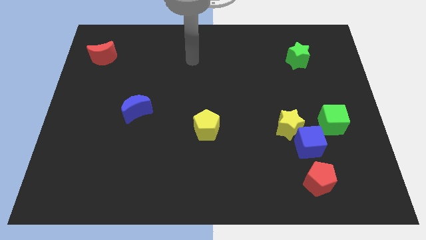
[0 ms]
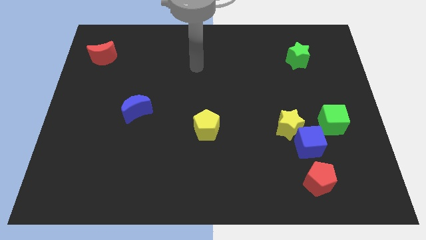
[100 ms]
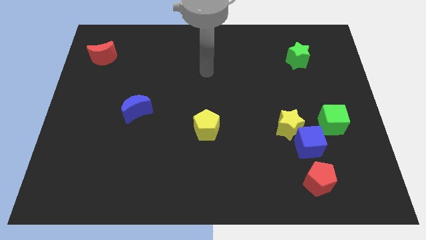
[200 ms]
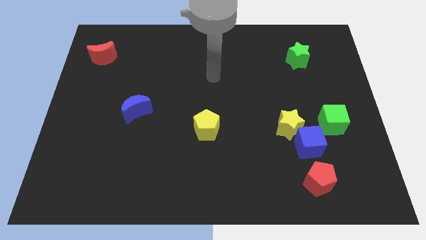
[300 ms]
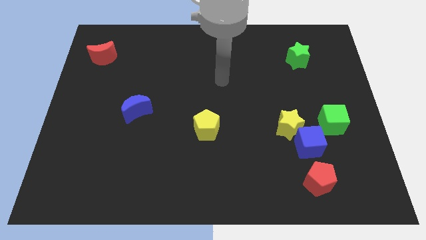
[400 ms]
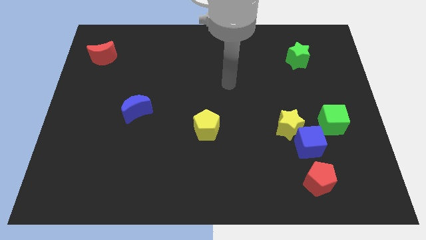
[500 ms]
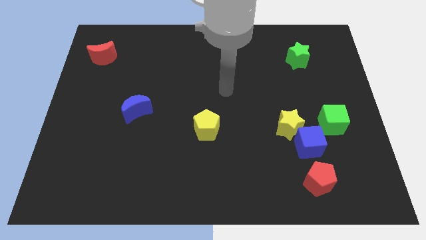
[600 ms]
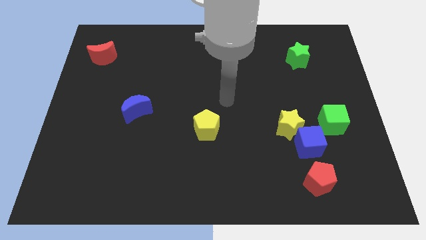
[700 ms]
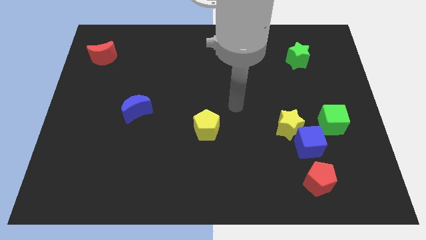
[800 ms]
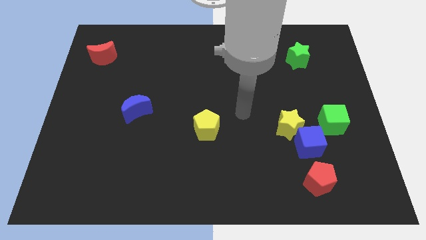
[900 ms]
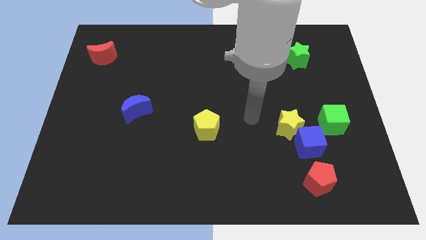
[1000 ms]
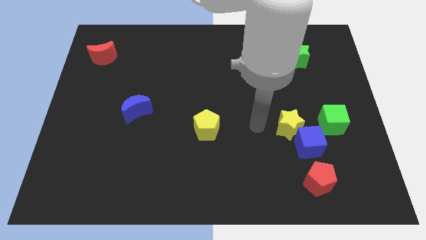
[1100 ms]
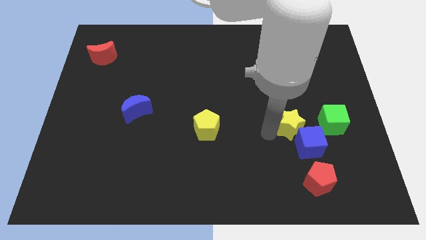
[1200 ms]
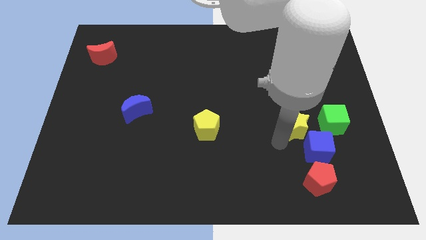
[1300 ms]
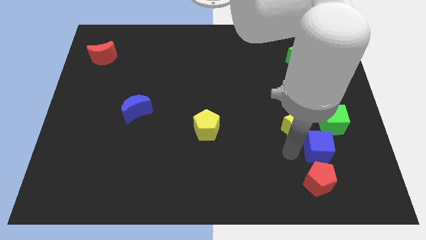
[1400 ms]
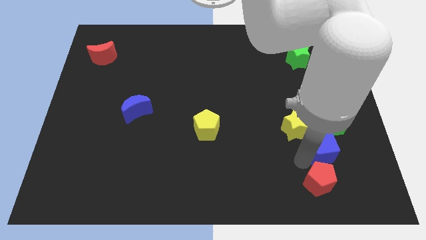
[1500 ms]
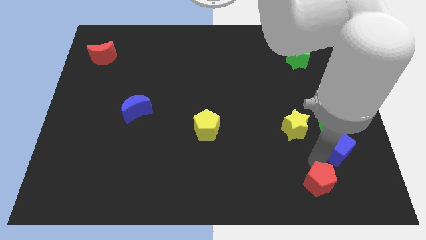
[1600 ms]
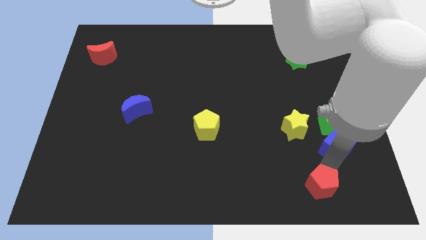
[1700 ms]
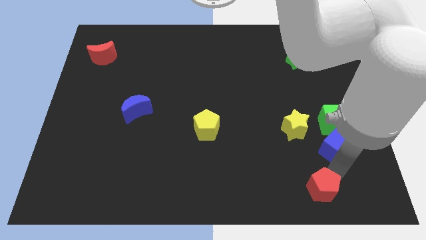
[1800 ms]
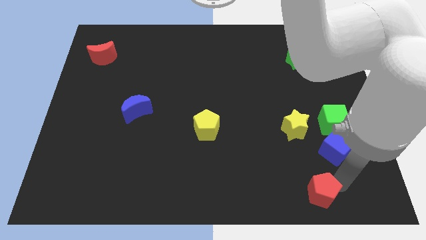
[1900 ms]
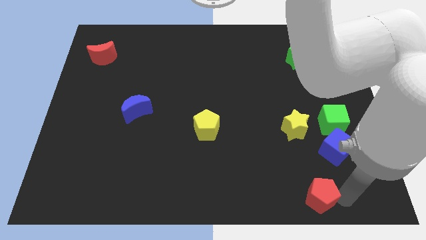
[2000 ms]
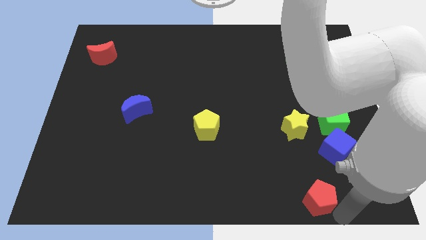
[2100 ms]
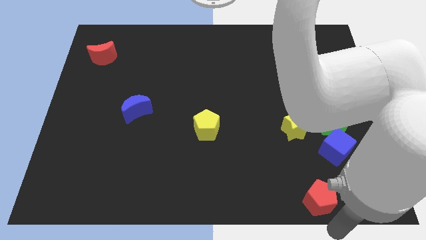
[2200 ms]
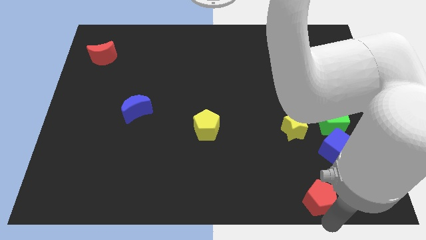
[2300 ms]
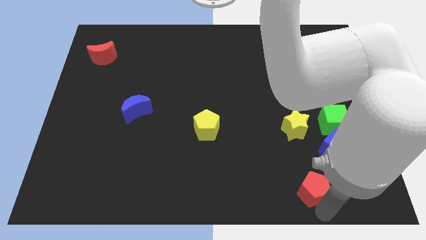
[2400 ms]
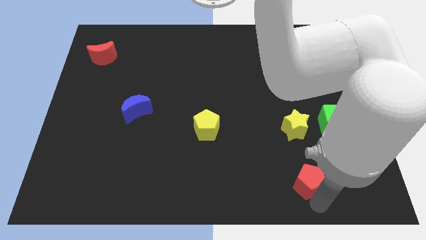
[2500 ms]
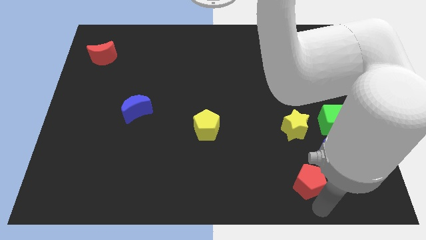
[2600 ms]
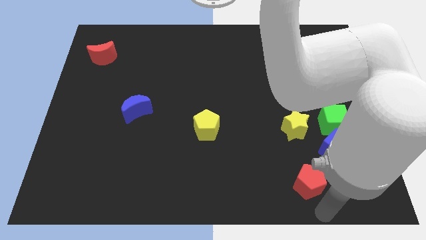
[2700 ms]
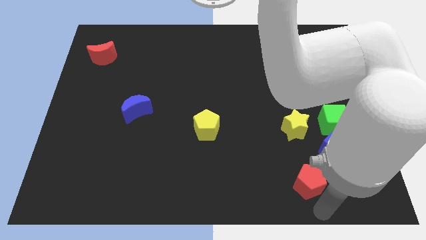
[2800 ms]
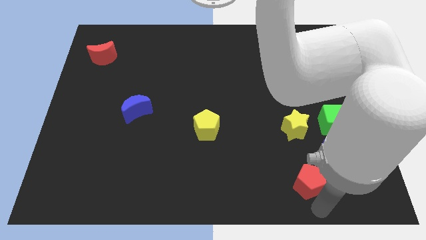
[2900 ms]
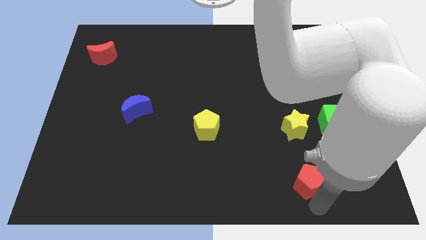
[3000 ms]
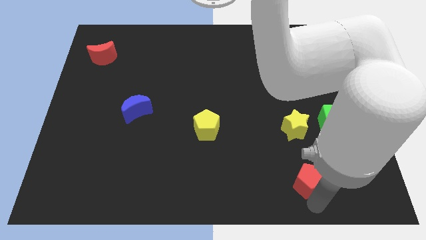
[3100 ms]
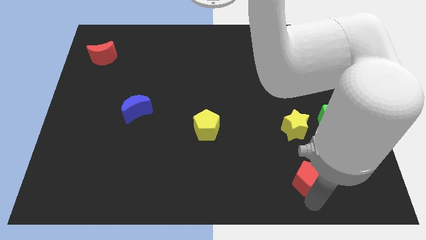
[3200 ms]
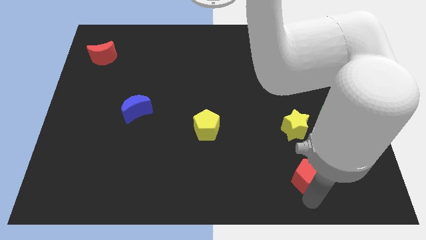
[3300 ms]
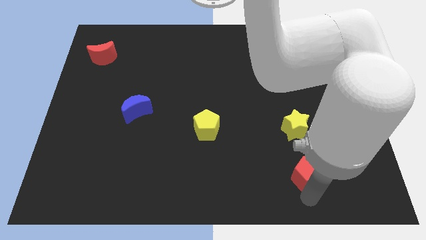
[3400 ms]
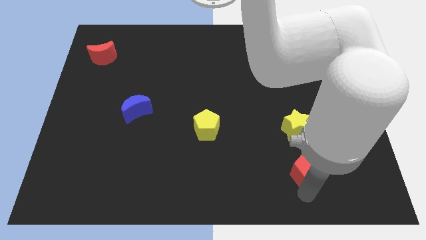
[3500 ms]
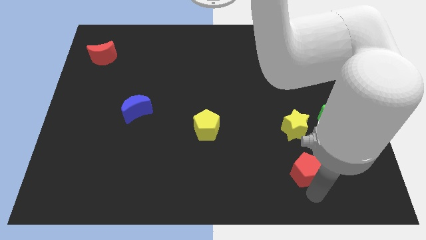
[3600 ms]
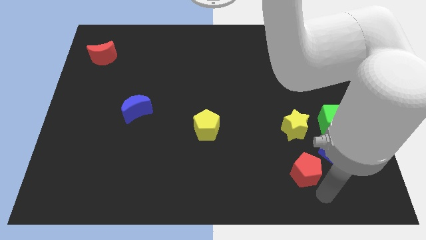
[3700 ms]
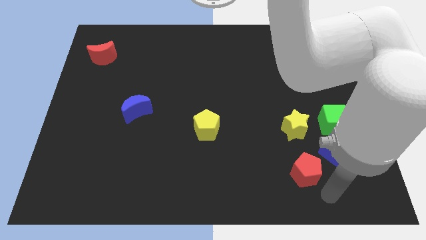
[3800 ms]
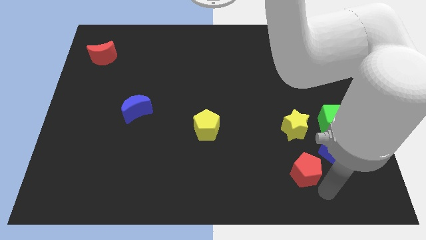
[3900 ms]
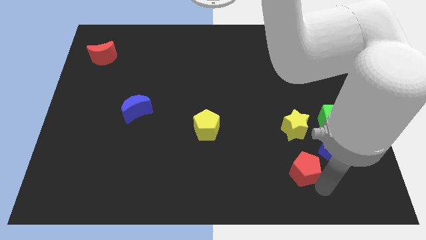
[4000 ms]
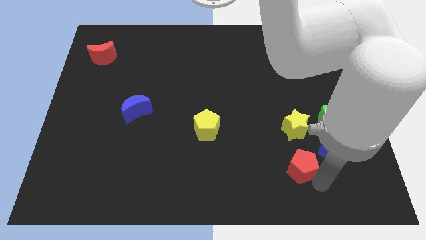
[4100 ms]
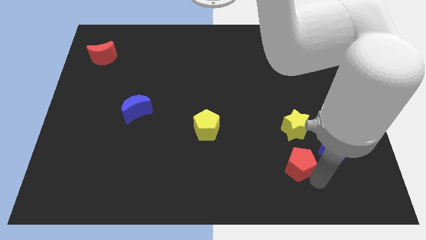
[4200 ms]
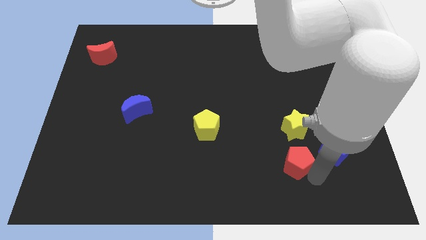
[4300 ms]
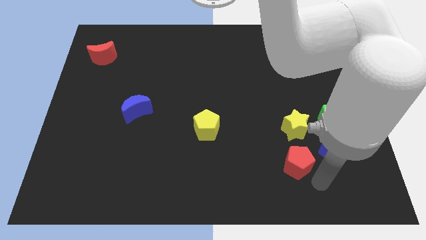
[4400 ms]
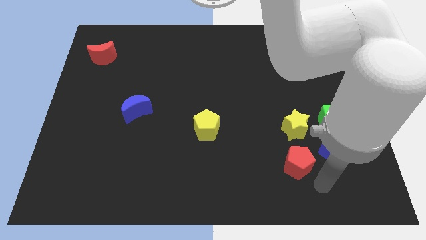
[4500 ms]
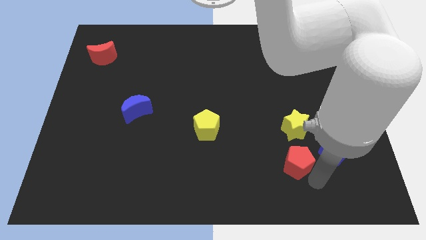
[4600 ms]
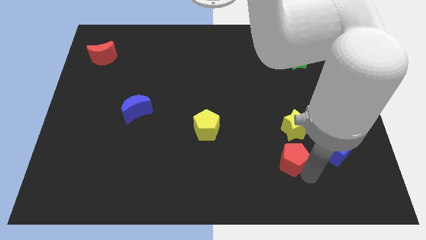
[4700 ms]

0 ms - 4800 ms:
slightly slide the red pentagon upwards and left diagonally

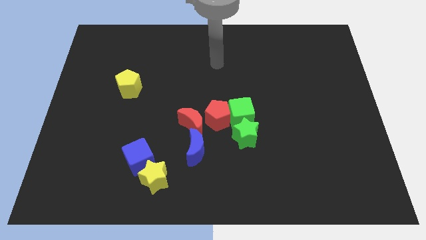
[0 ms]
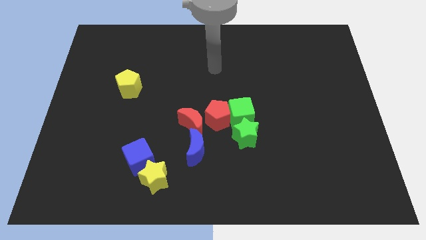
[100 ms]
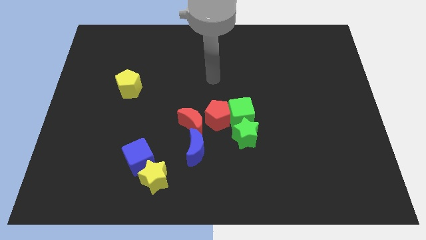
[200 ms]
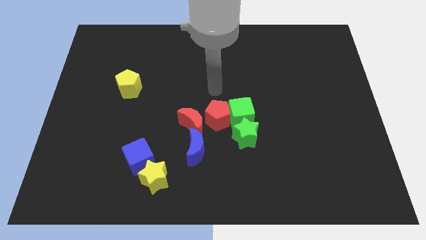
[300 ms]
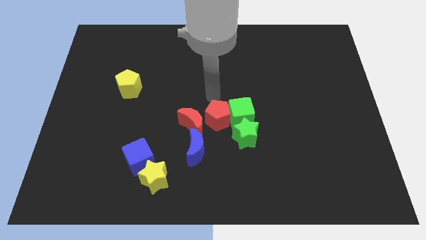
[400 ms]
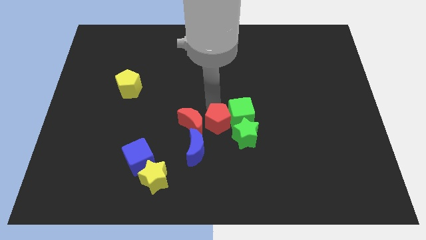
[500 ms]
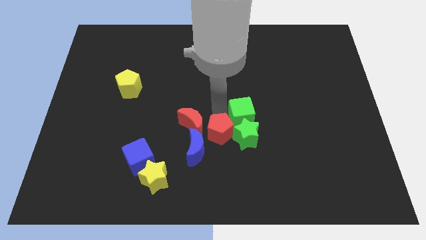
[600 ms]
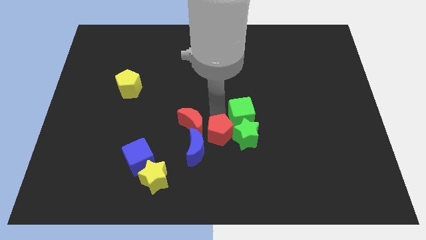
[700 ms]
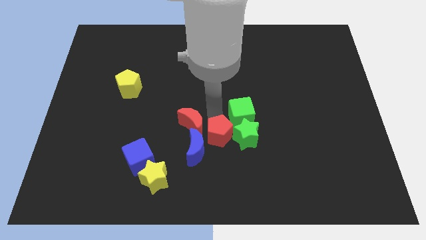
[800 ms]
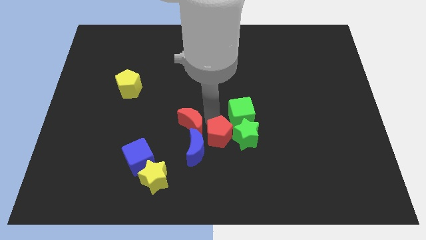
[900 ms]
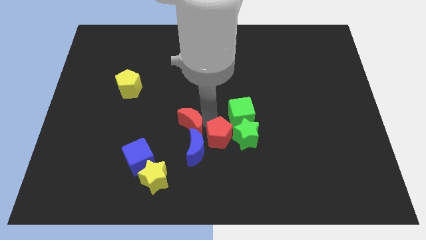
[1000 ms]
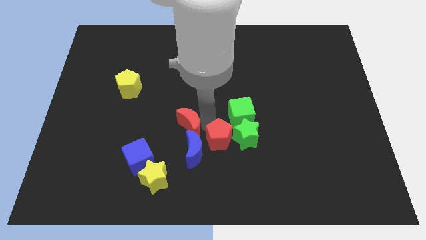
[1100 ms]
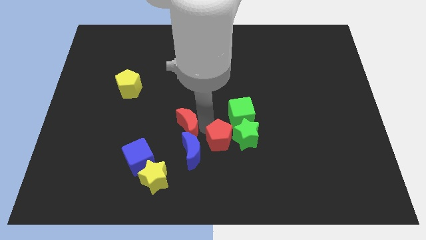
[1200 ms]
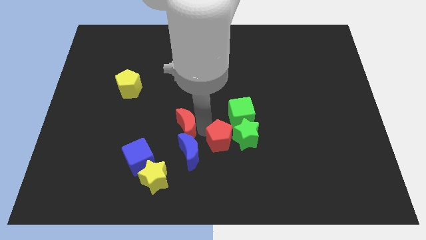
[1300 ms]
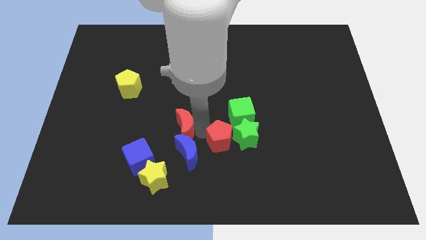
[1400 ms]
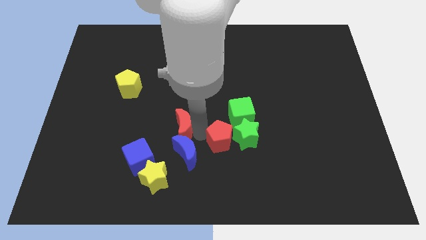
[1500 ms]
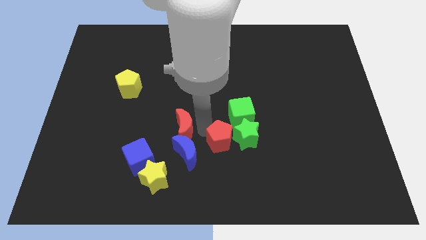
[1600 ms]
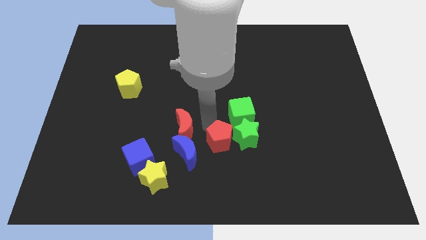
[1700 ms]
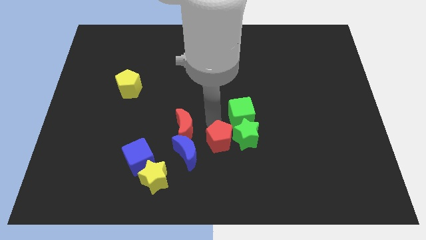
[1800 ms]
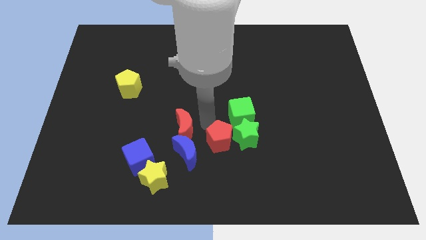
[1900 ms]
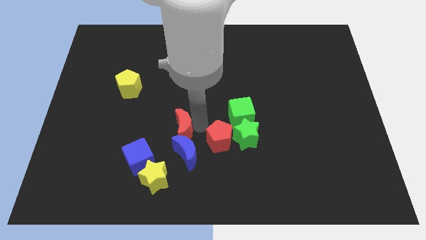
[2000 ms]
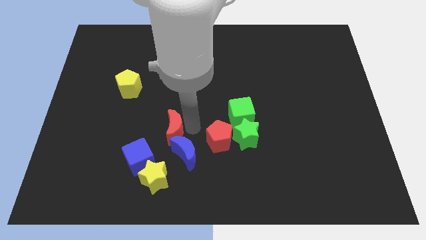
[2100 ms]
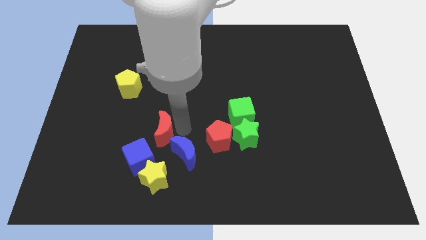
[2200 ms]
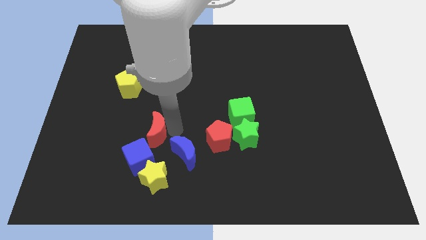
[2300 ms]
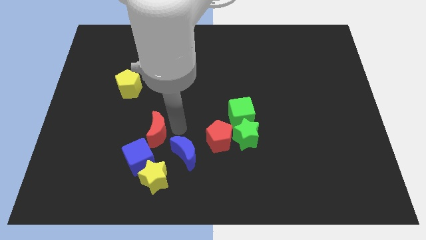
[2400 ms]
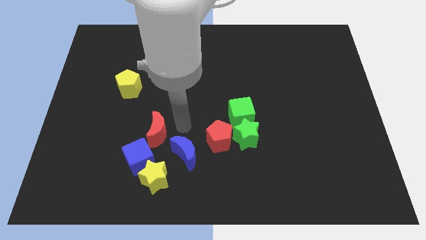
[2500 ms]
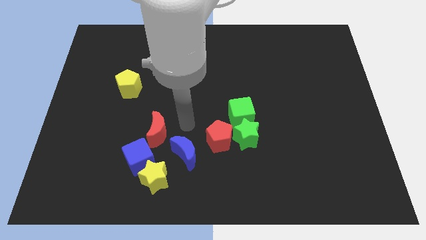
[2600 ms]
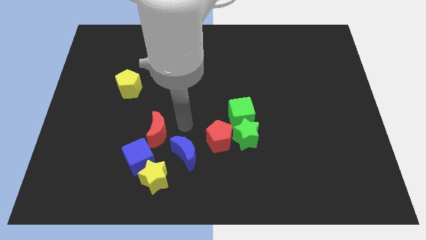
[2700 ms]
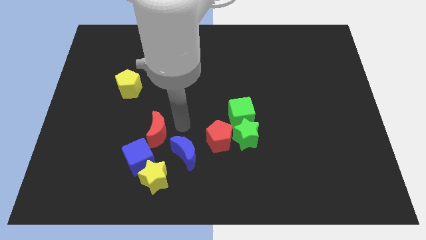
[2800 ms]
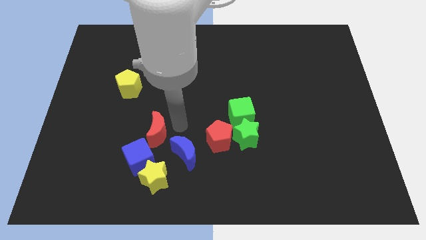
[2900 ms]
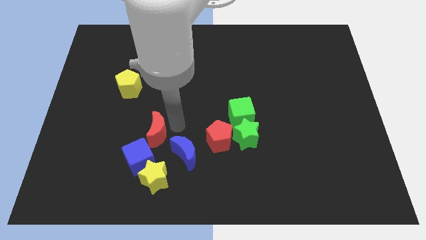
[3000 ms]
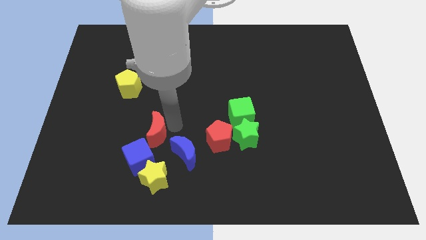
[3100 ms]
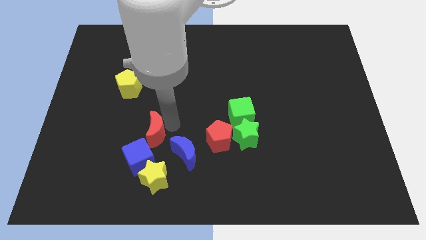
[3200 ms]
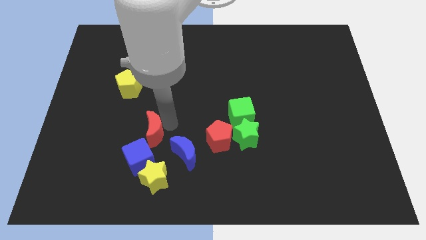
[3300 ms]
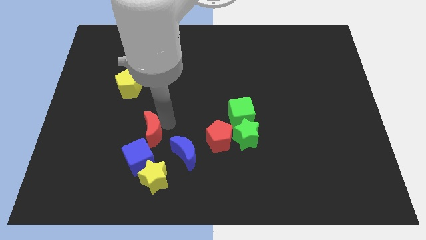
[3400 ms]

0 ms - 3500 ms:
slightly slide the red moon down and to the left diagonally
